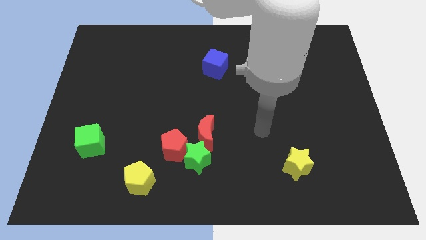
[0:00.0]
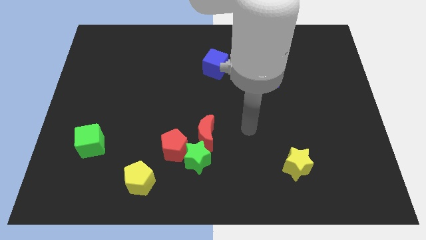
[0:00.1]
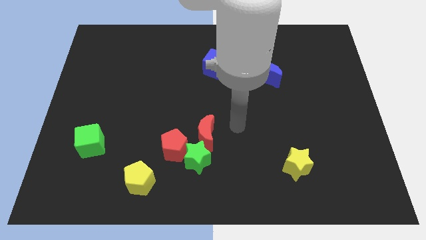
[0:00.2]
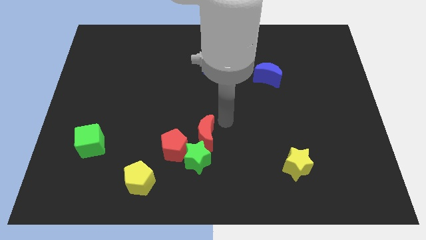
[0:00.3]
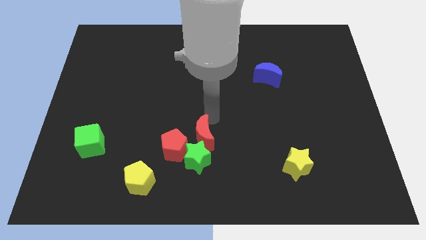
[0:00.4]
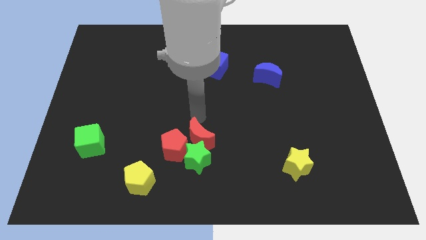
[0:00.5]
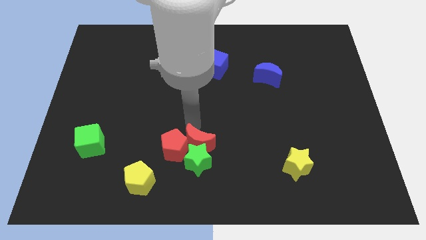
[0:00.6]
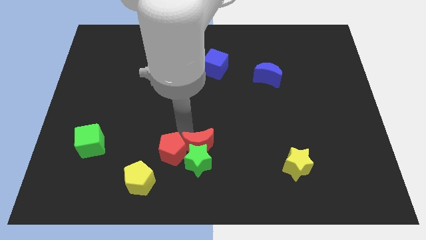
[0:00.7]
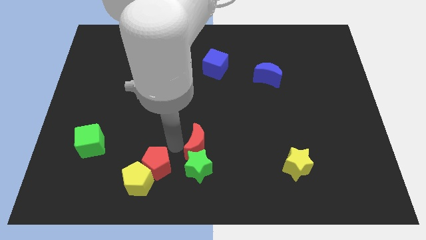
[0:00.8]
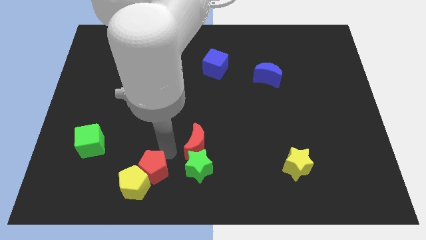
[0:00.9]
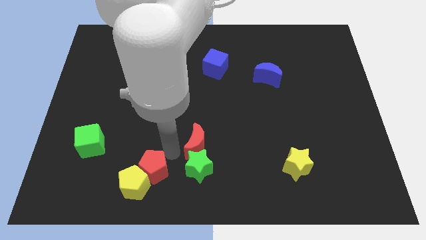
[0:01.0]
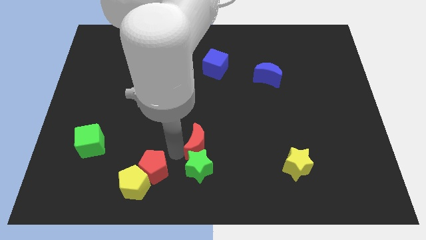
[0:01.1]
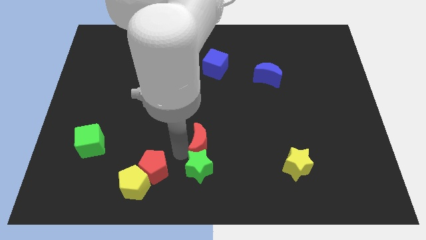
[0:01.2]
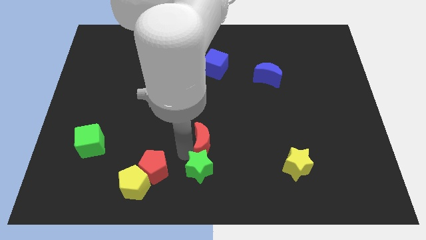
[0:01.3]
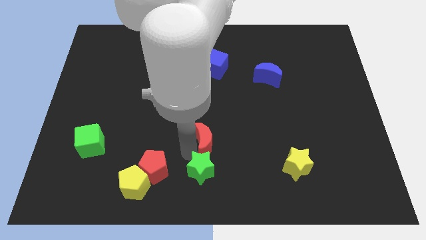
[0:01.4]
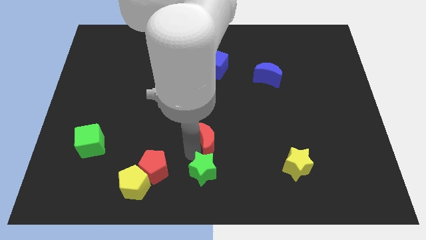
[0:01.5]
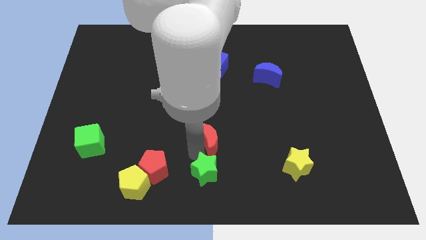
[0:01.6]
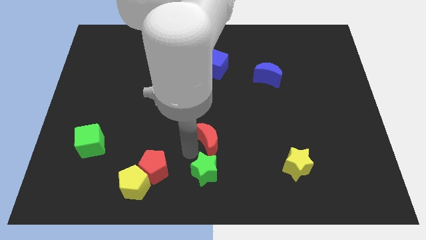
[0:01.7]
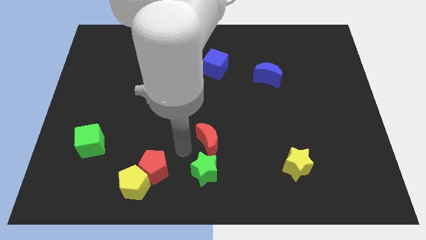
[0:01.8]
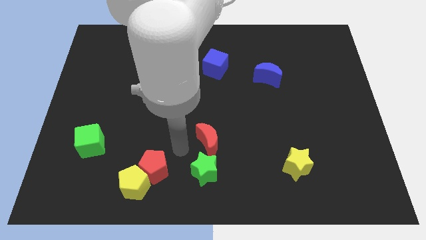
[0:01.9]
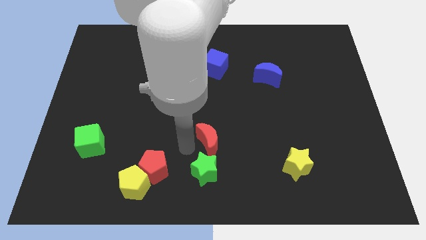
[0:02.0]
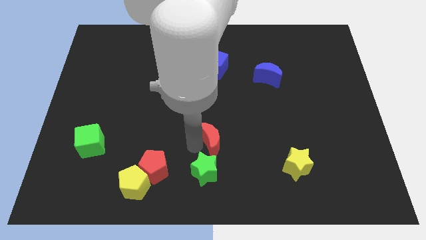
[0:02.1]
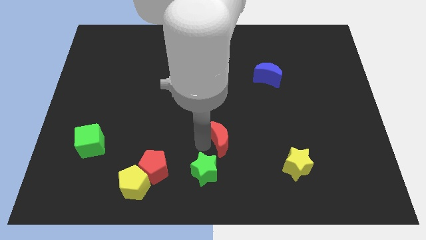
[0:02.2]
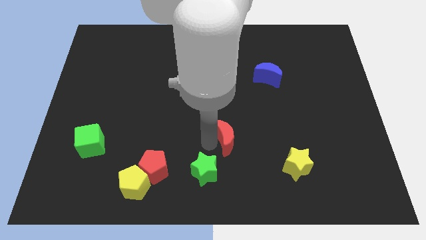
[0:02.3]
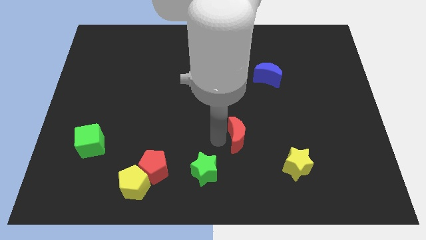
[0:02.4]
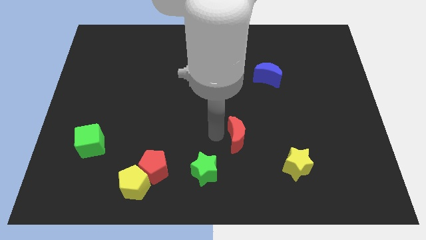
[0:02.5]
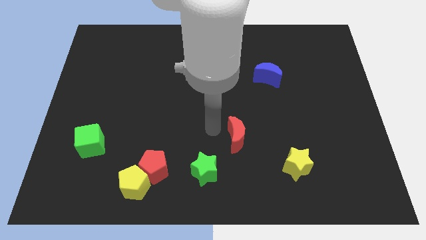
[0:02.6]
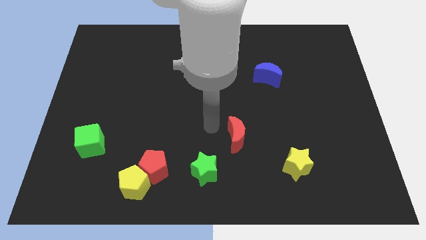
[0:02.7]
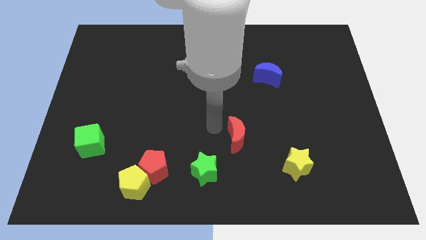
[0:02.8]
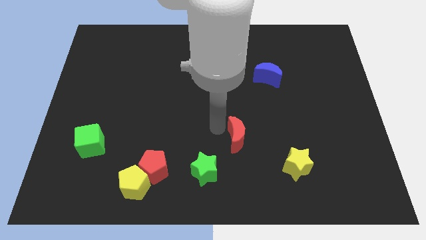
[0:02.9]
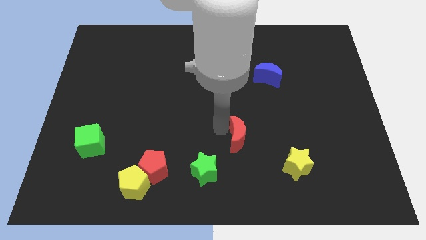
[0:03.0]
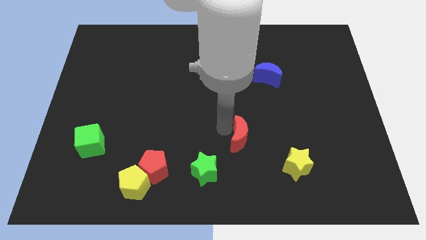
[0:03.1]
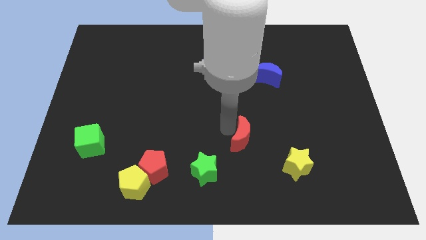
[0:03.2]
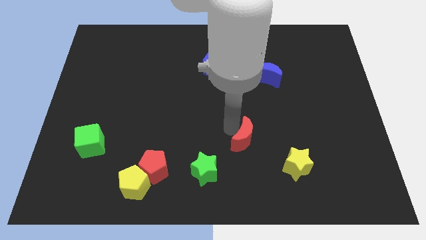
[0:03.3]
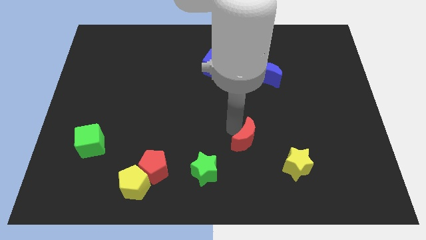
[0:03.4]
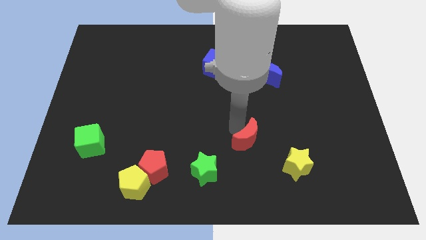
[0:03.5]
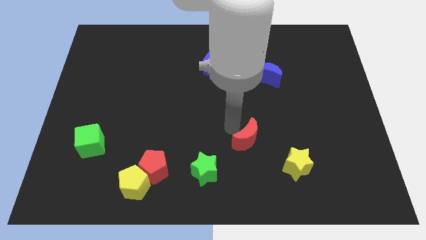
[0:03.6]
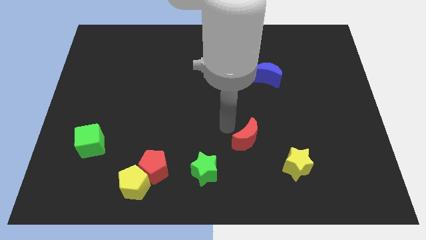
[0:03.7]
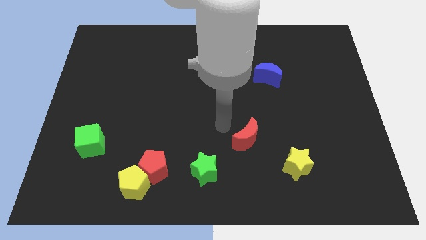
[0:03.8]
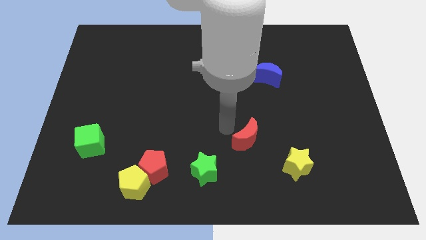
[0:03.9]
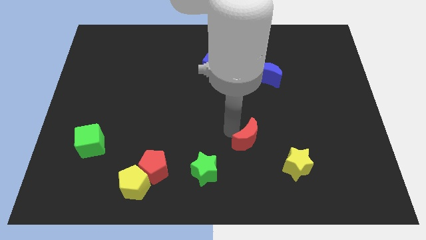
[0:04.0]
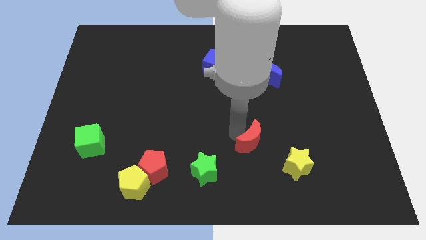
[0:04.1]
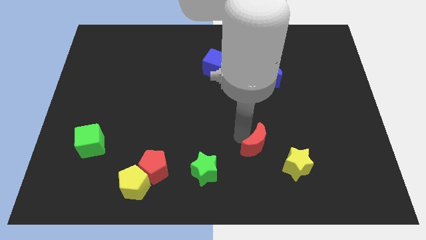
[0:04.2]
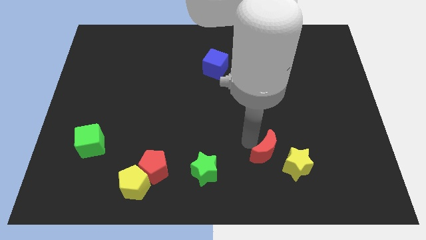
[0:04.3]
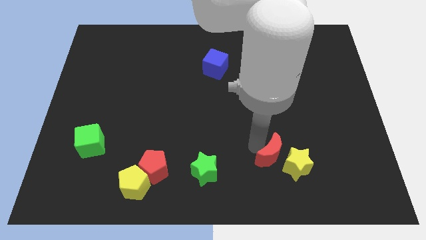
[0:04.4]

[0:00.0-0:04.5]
move the red moon next to the yellow star

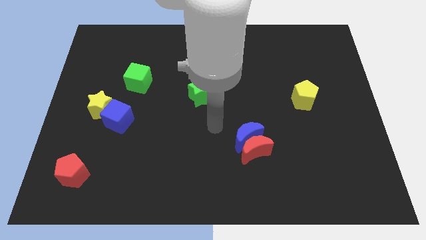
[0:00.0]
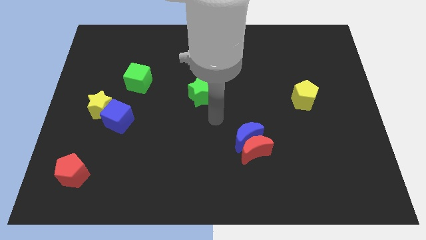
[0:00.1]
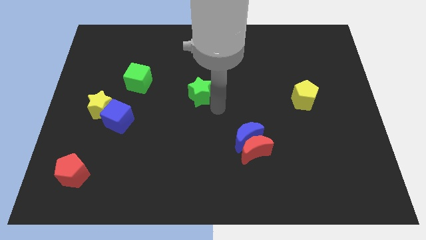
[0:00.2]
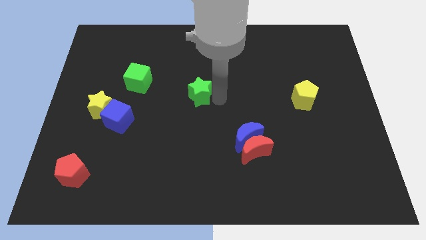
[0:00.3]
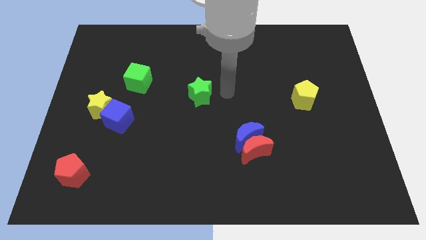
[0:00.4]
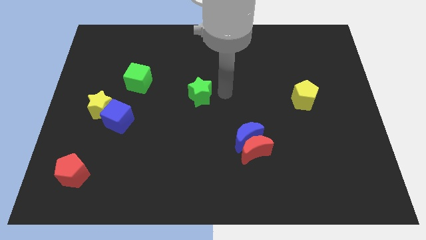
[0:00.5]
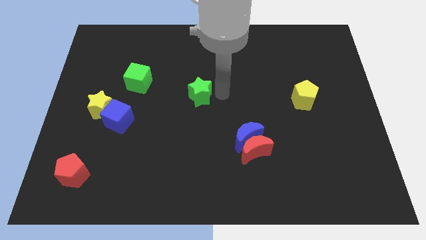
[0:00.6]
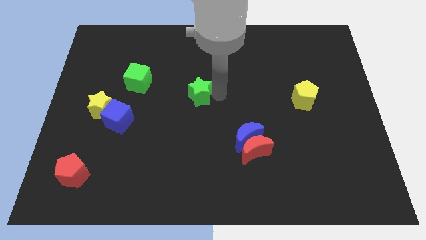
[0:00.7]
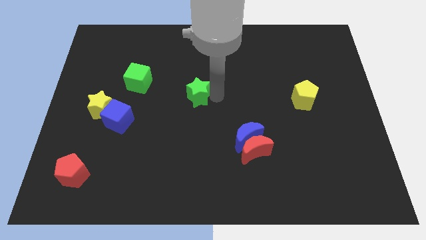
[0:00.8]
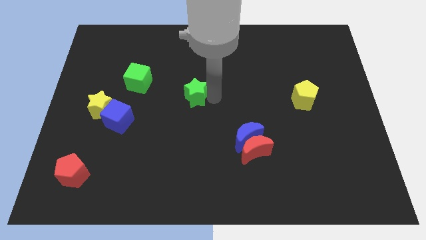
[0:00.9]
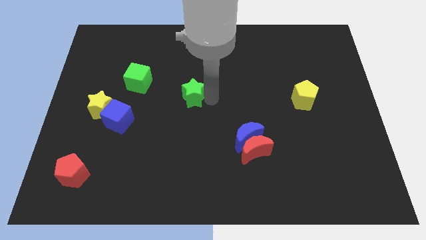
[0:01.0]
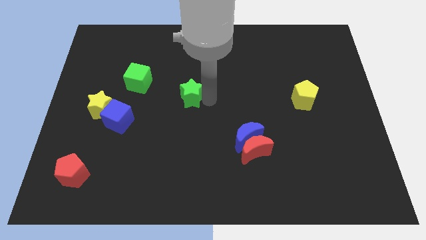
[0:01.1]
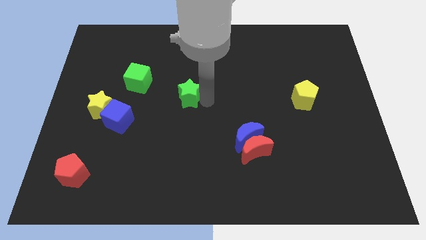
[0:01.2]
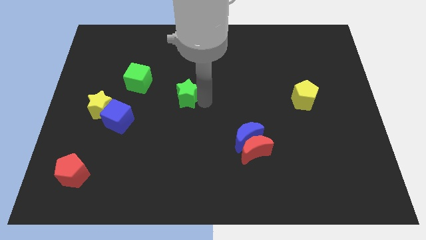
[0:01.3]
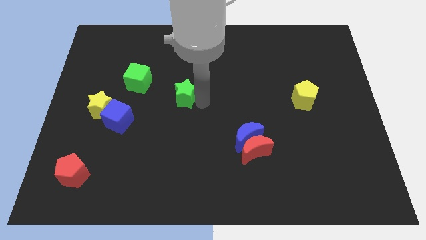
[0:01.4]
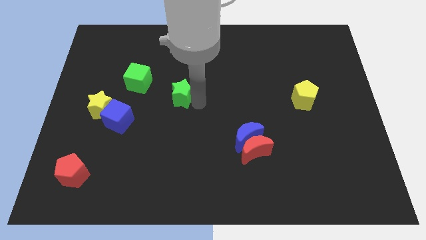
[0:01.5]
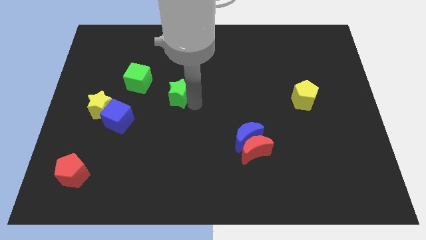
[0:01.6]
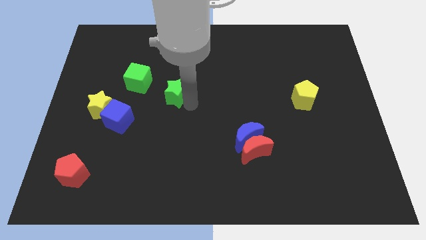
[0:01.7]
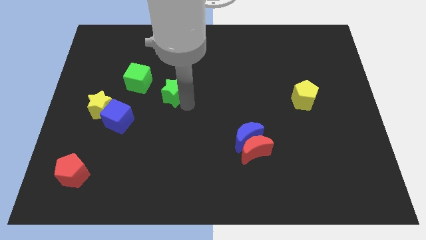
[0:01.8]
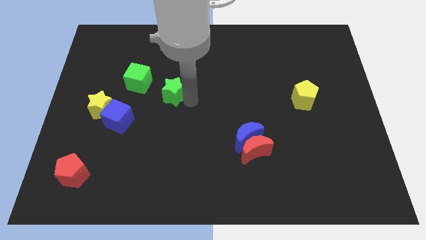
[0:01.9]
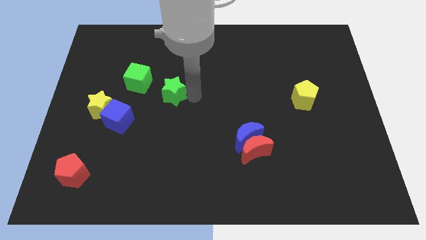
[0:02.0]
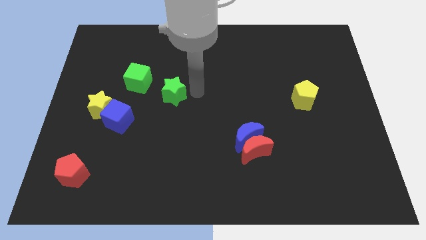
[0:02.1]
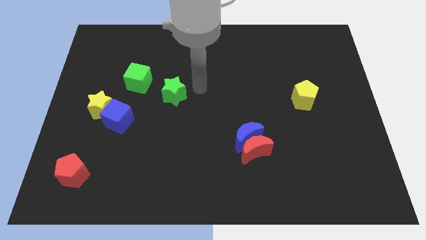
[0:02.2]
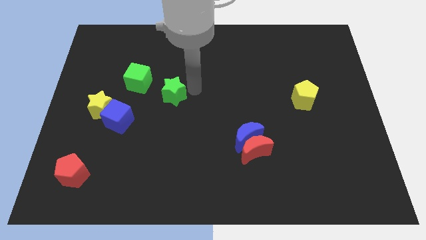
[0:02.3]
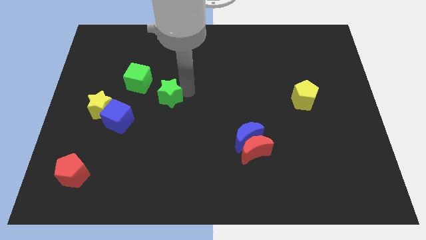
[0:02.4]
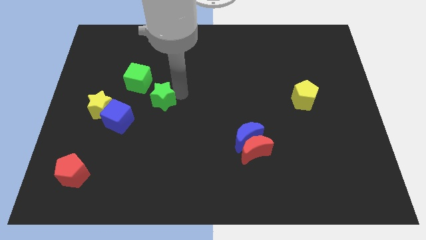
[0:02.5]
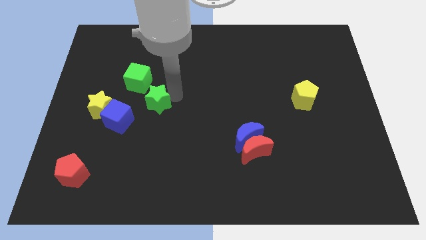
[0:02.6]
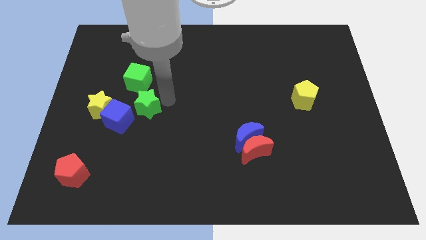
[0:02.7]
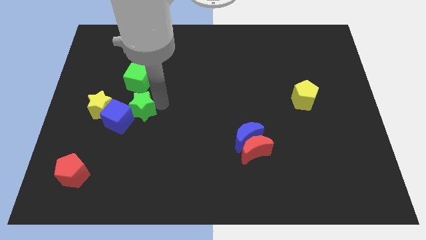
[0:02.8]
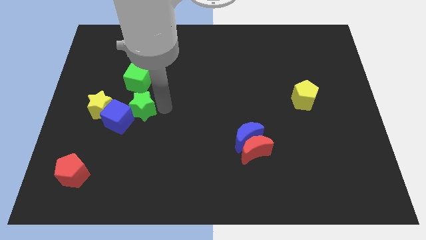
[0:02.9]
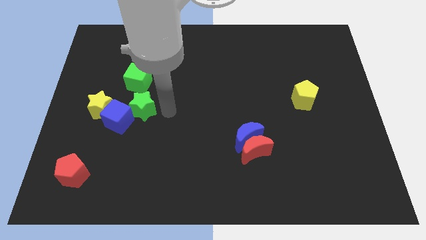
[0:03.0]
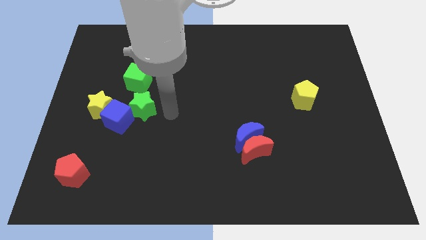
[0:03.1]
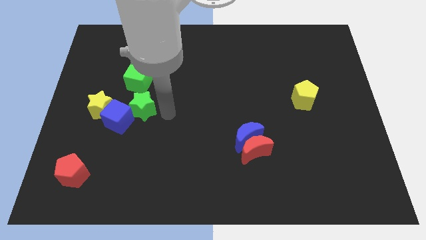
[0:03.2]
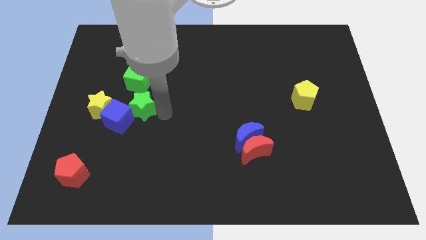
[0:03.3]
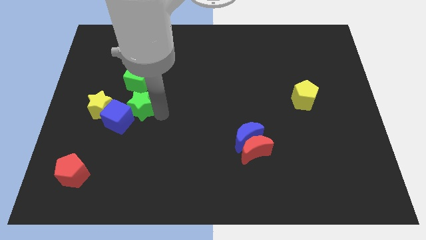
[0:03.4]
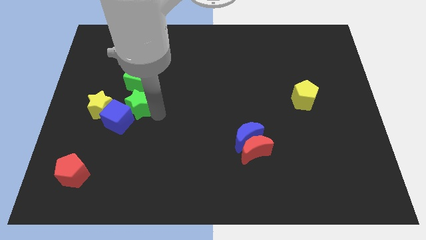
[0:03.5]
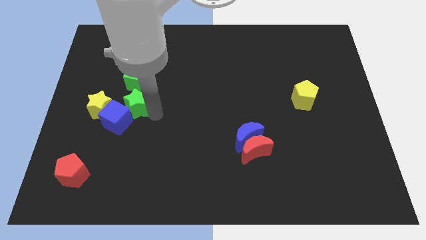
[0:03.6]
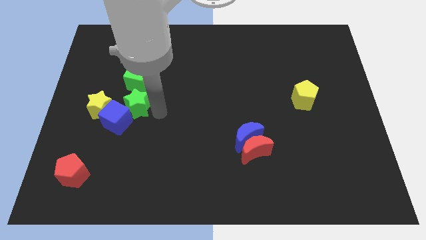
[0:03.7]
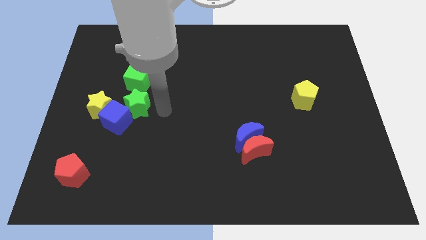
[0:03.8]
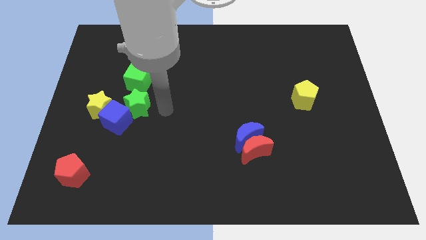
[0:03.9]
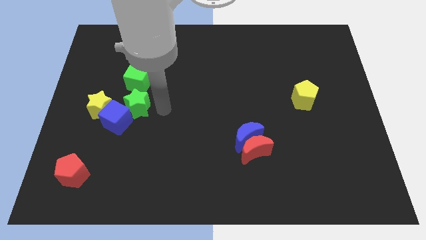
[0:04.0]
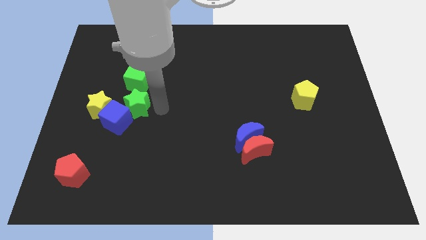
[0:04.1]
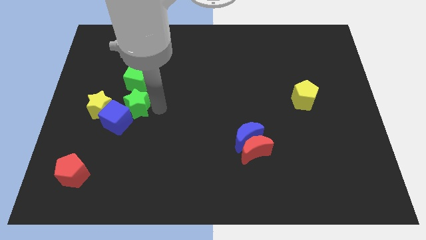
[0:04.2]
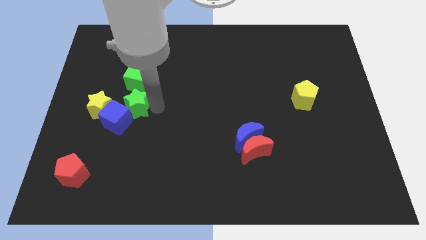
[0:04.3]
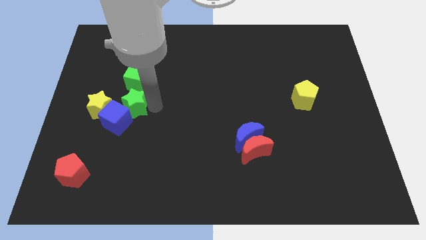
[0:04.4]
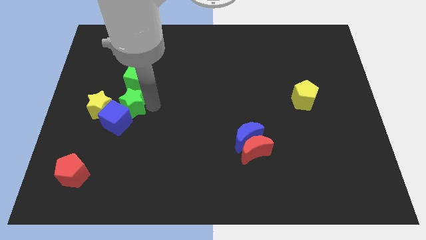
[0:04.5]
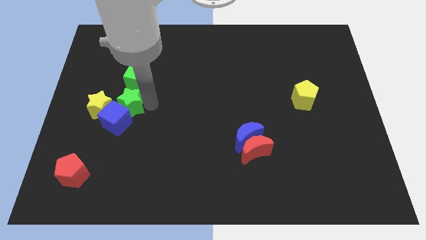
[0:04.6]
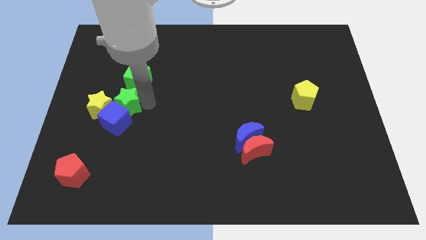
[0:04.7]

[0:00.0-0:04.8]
slide the green star next to the yellow star
